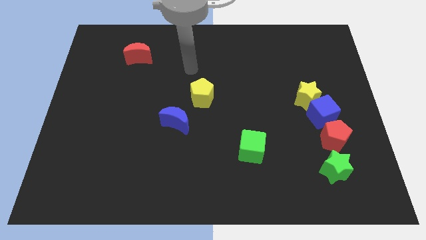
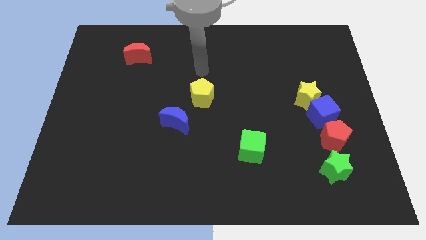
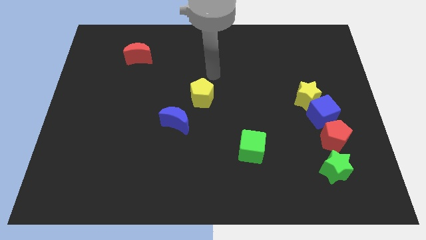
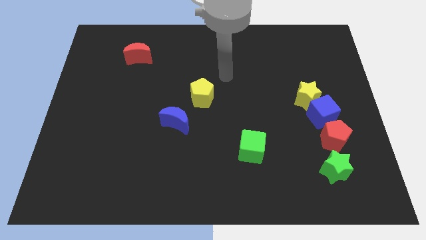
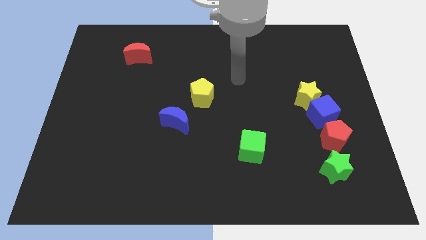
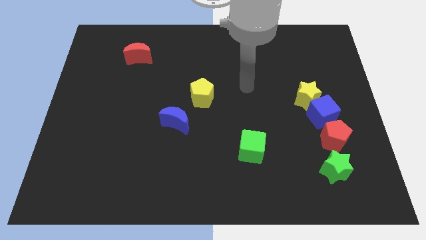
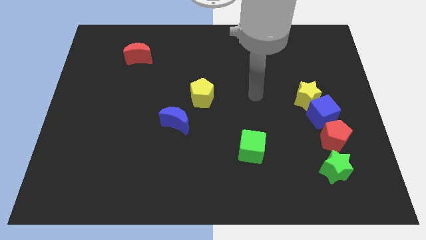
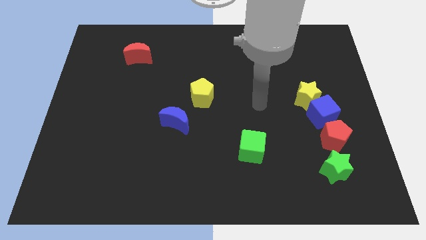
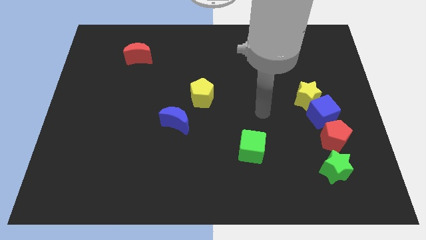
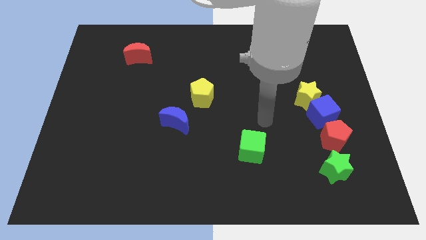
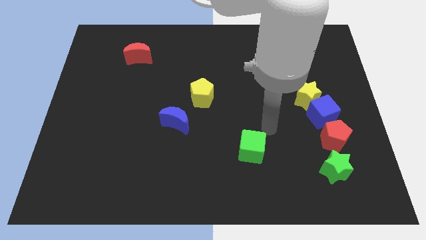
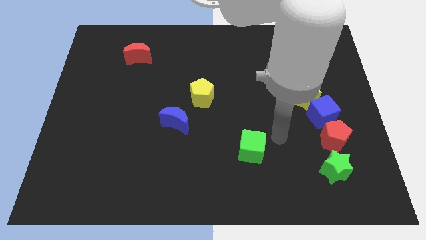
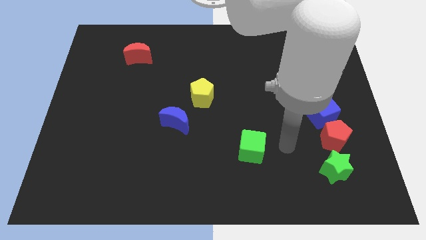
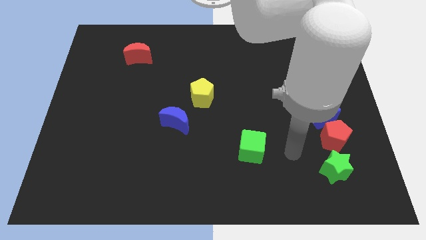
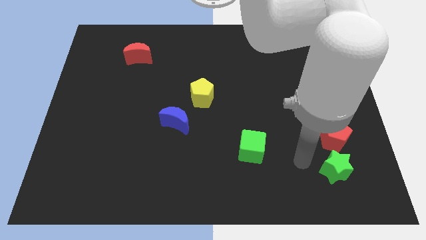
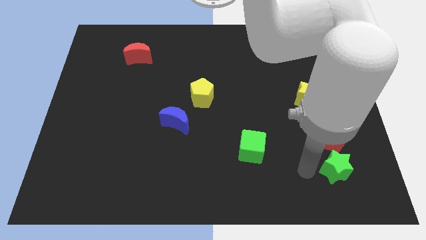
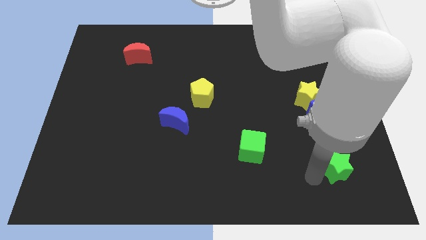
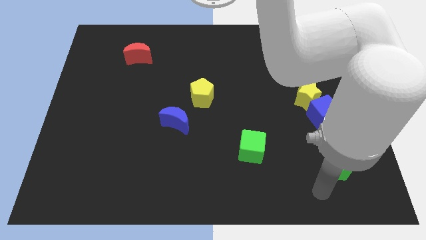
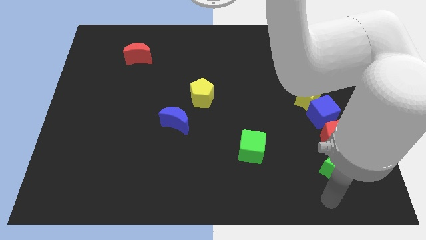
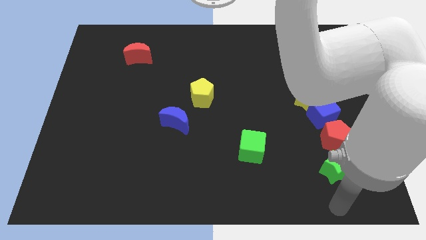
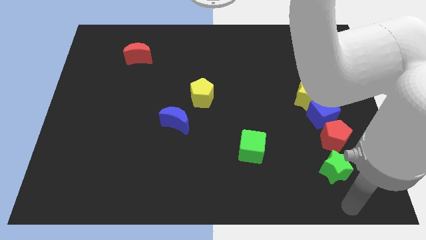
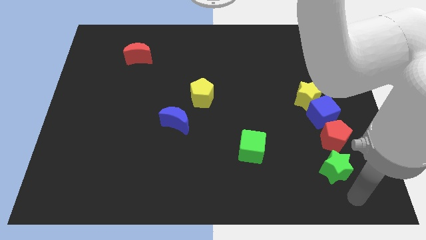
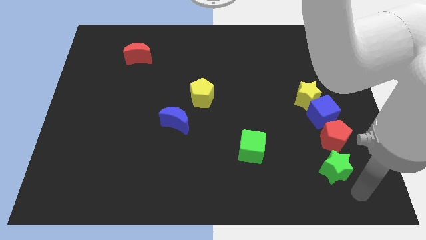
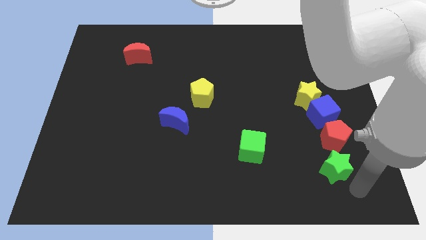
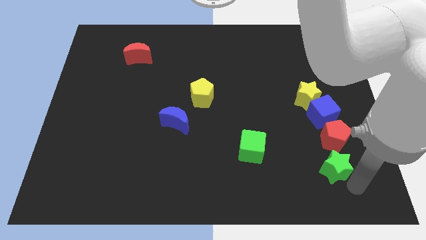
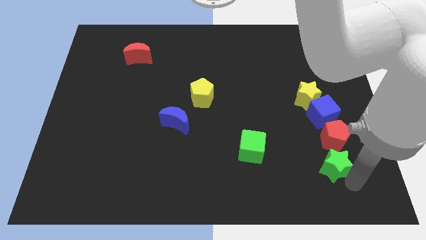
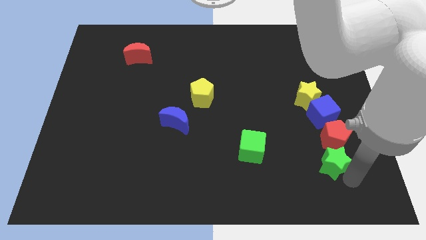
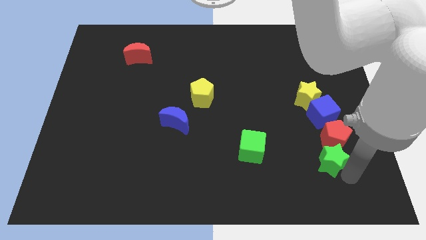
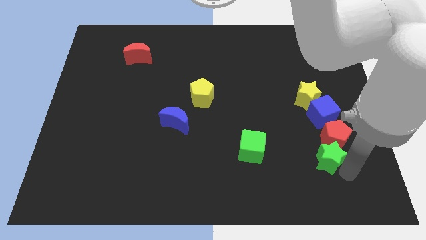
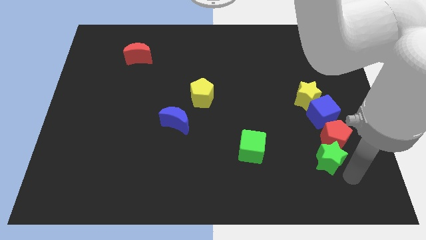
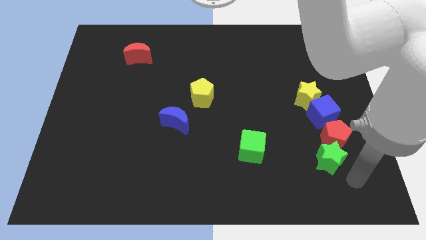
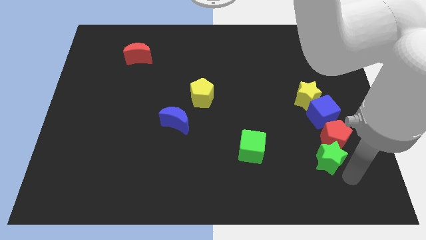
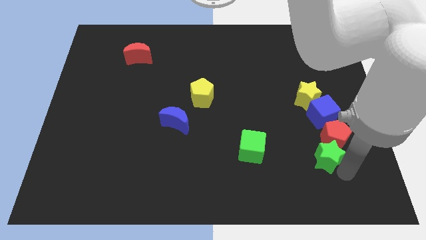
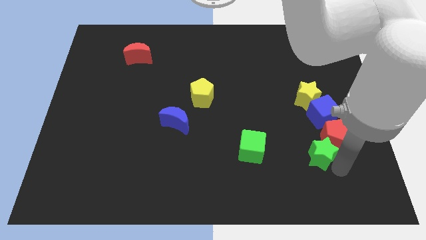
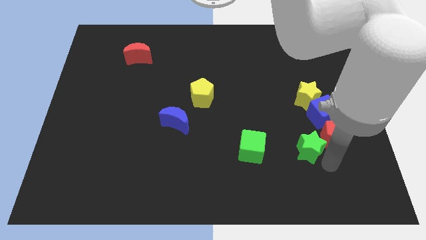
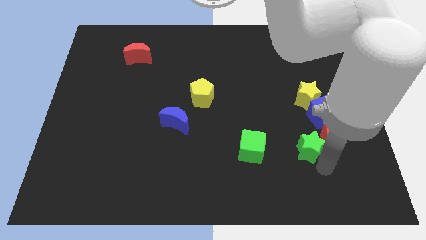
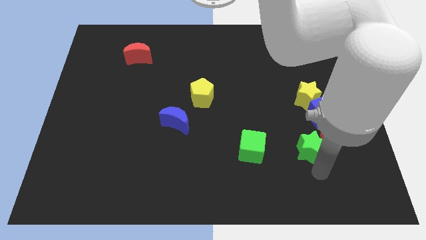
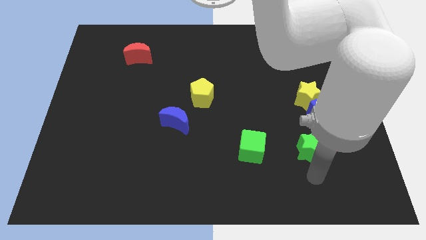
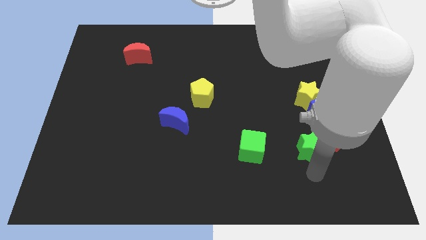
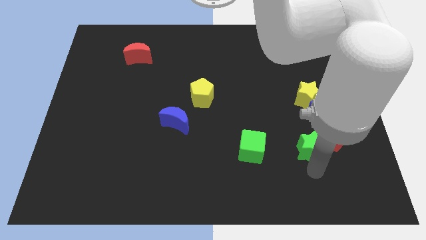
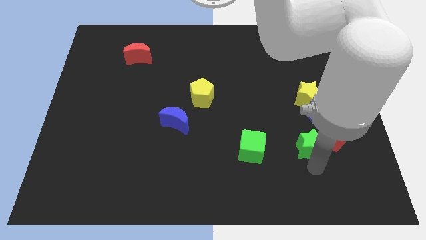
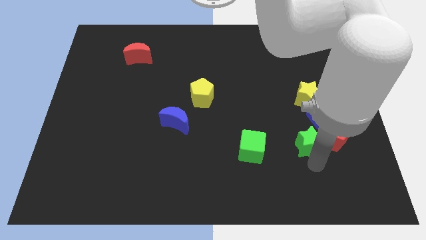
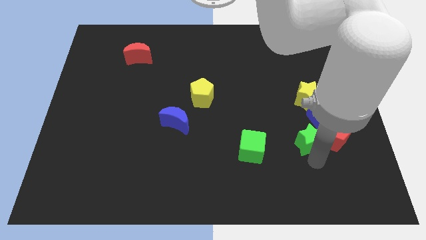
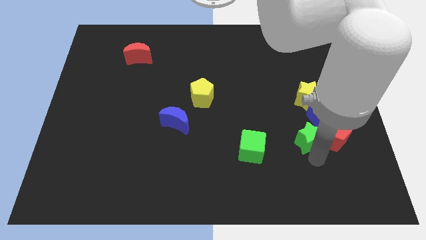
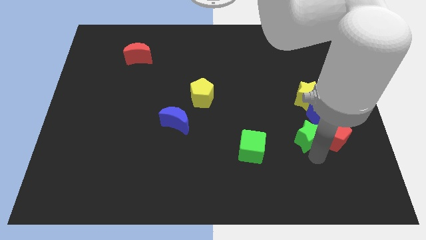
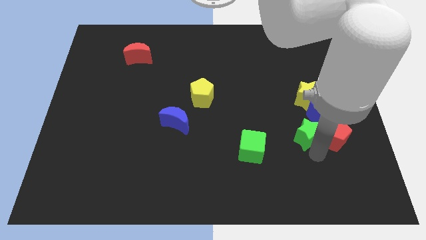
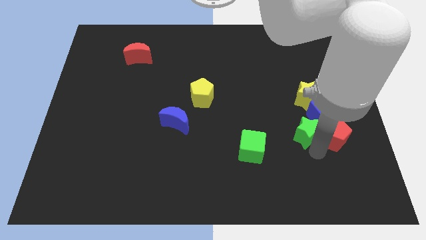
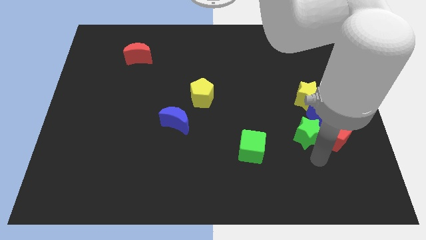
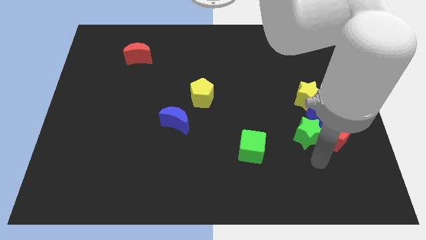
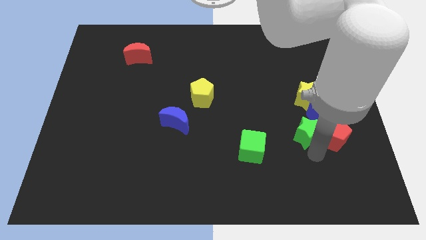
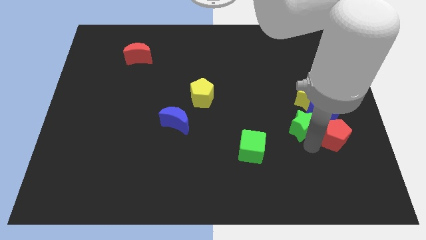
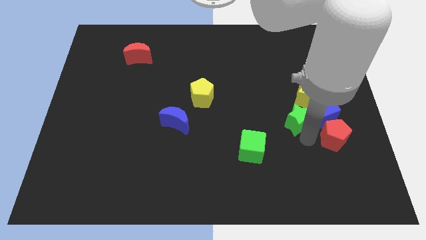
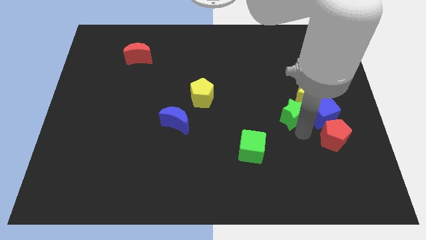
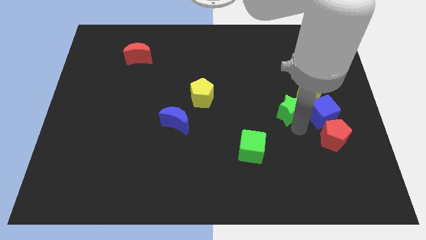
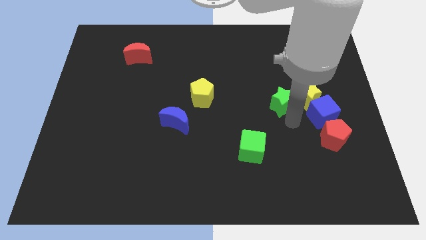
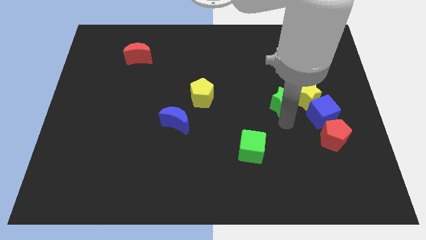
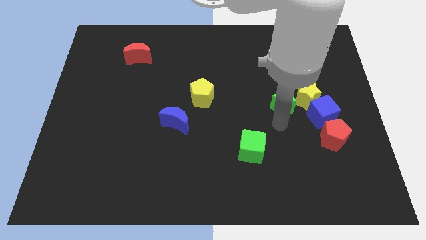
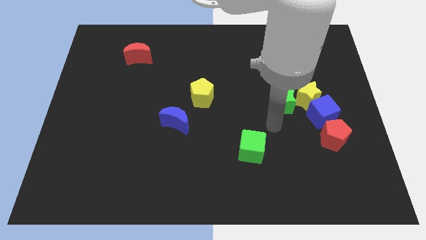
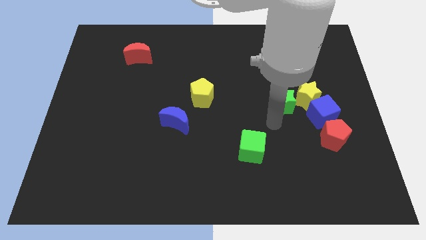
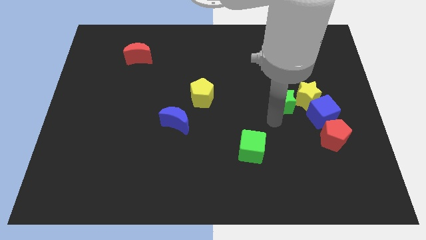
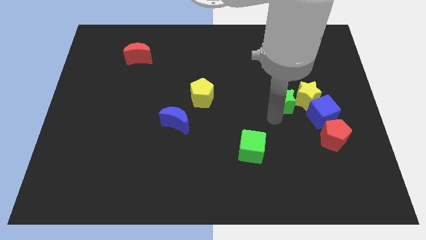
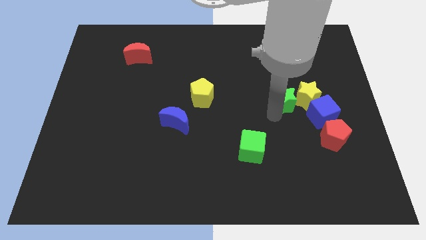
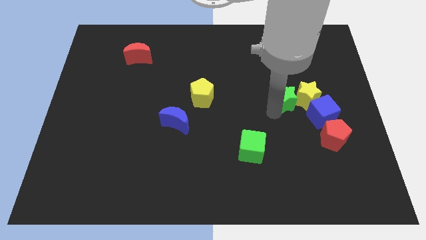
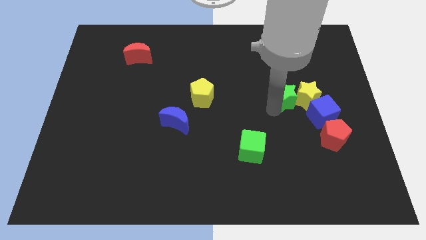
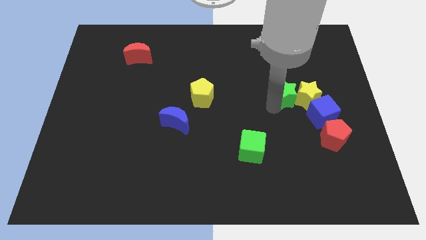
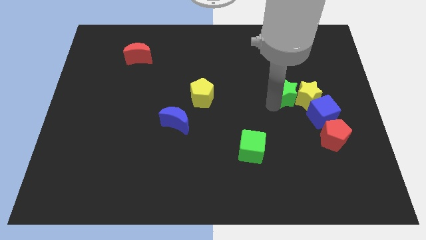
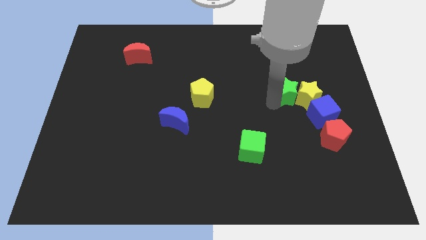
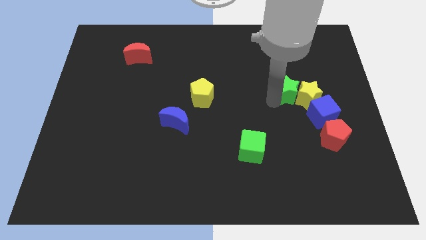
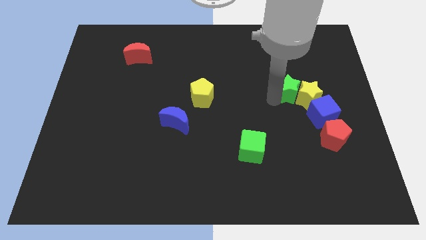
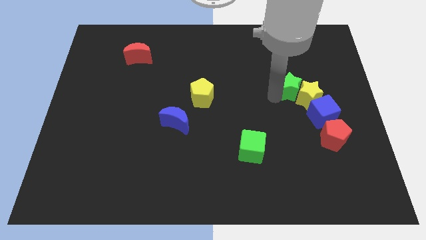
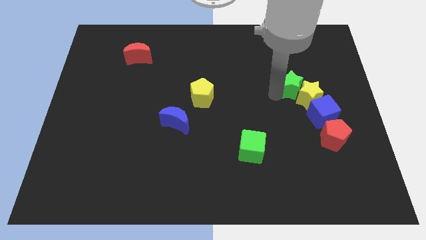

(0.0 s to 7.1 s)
push the green star upwards

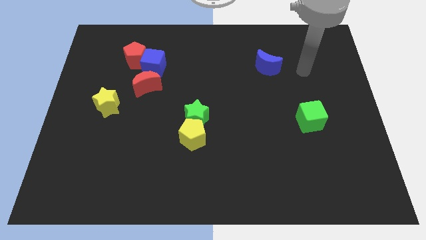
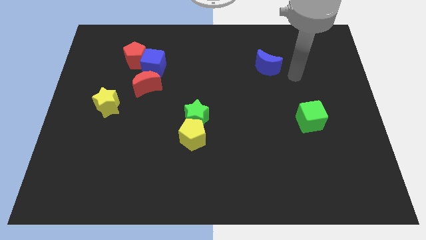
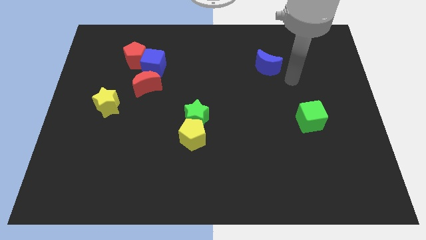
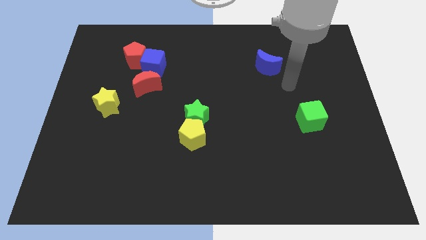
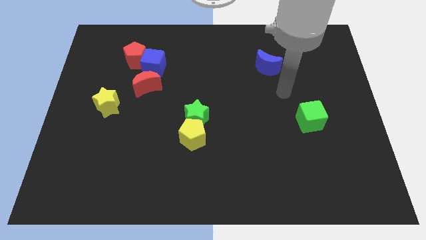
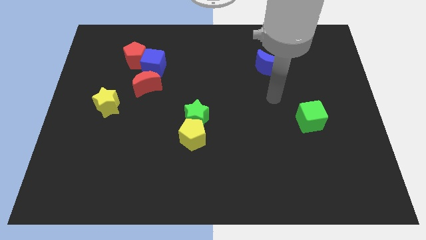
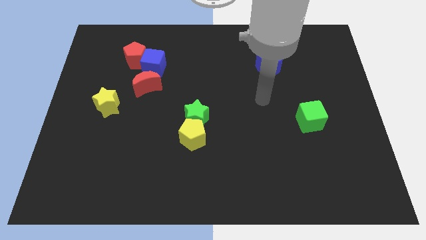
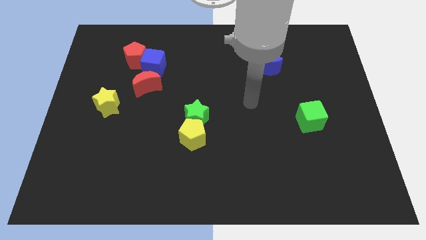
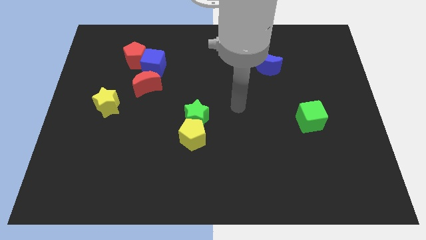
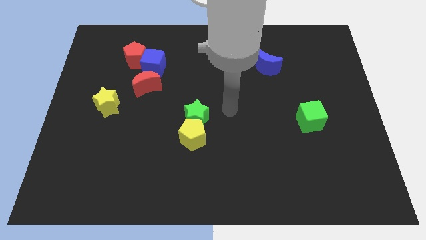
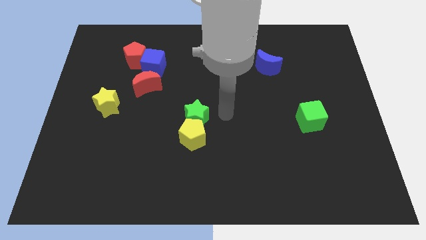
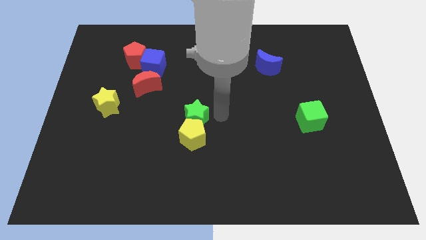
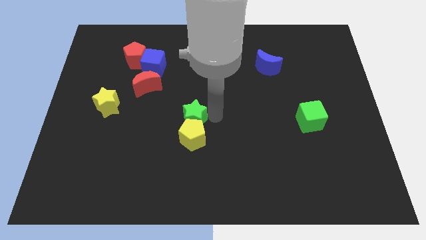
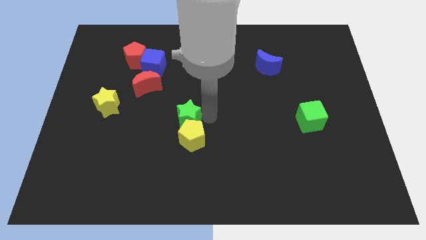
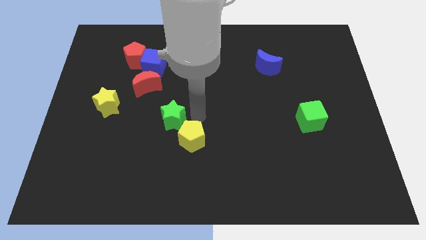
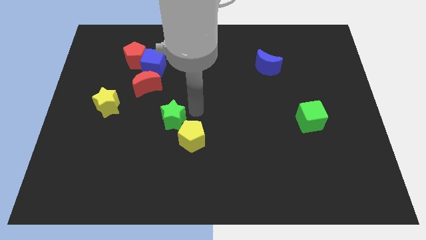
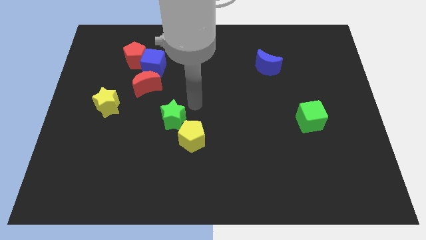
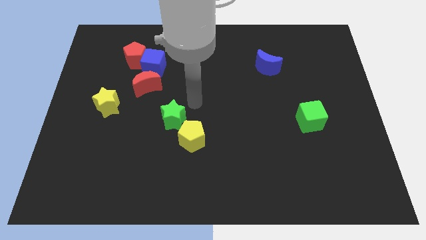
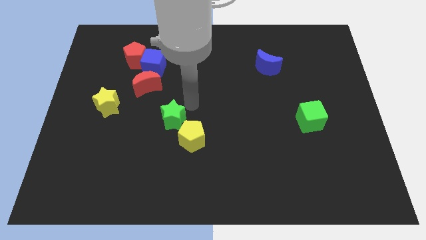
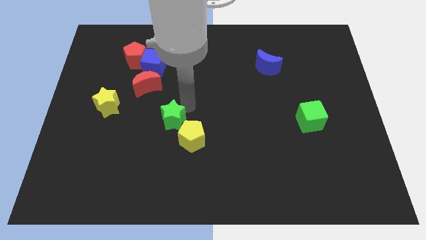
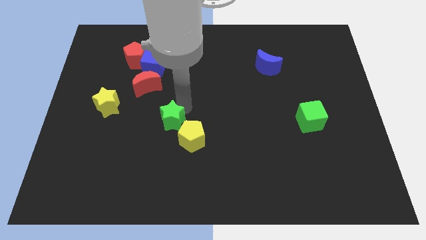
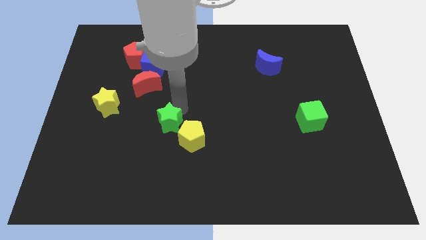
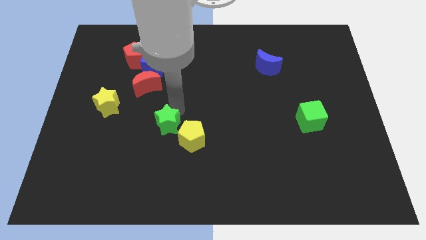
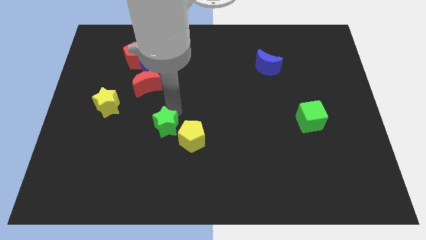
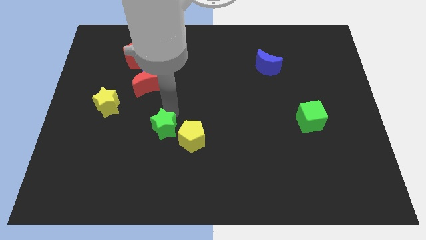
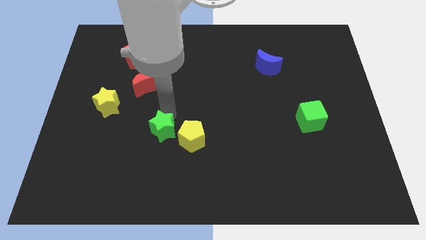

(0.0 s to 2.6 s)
push the green star down and to the left diagonally a little bit
